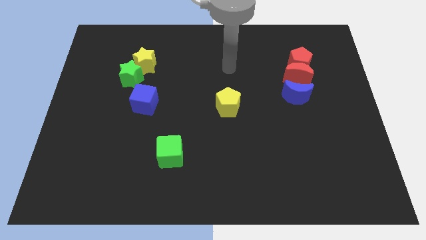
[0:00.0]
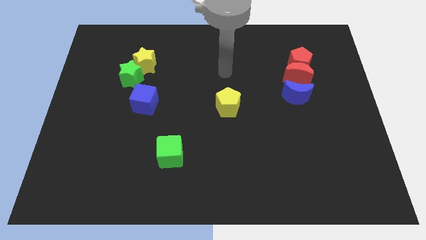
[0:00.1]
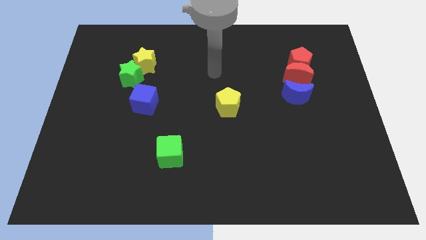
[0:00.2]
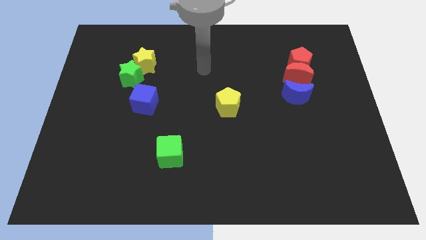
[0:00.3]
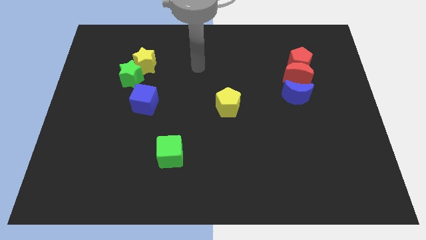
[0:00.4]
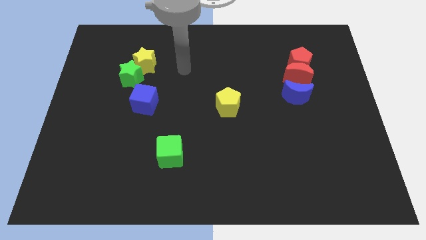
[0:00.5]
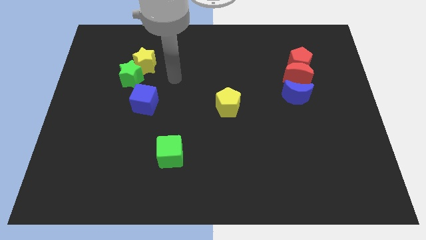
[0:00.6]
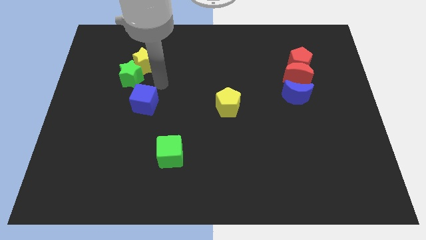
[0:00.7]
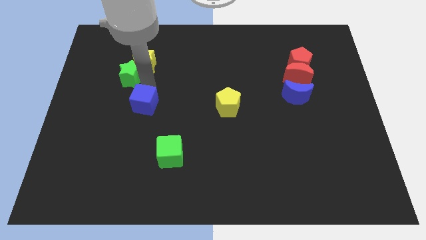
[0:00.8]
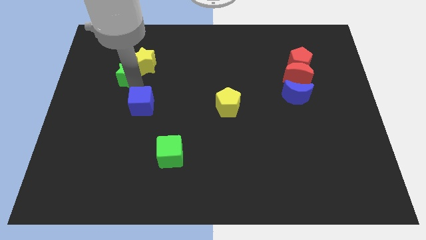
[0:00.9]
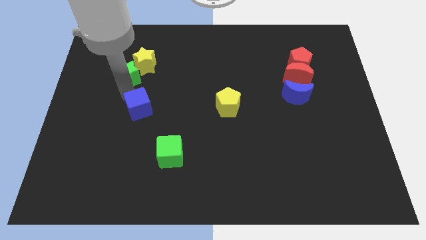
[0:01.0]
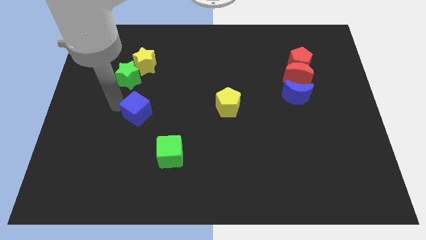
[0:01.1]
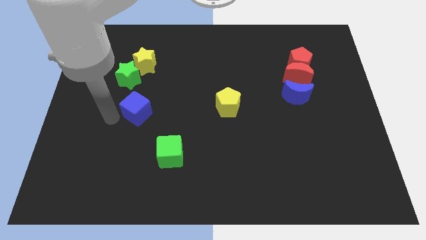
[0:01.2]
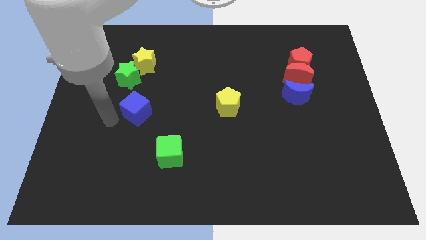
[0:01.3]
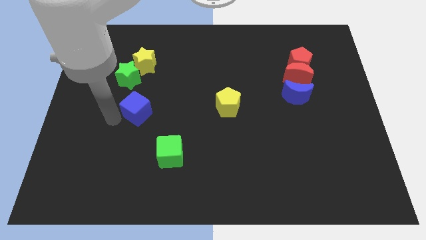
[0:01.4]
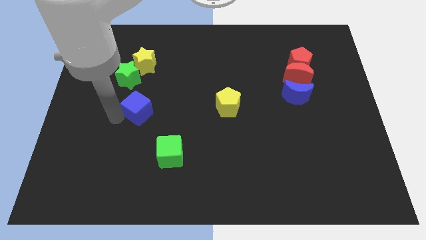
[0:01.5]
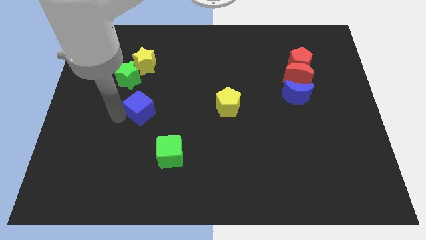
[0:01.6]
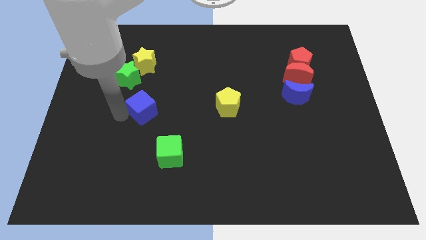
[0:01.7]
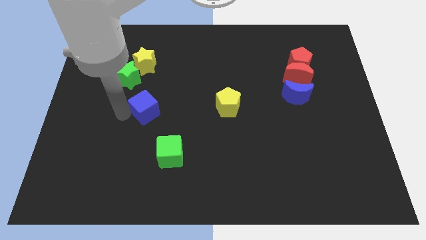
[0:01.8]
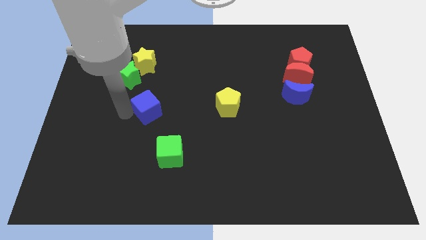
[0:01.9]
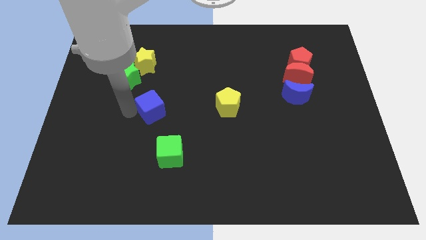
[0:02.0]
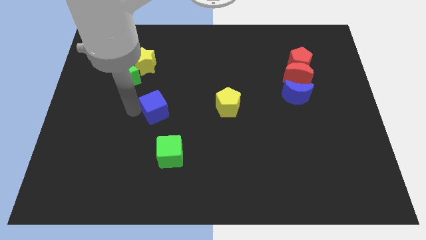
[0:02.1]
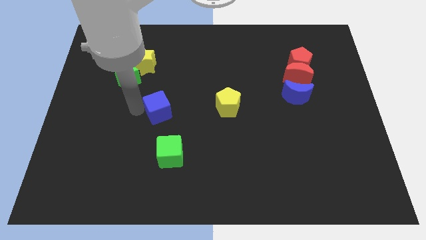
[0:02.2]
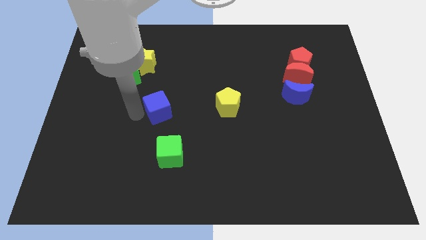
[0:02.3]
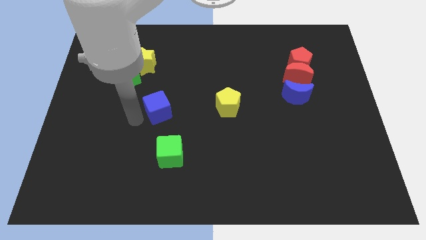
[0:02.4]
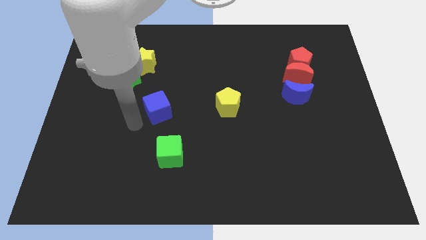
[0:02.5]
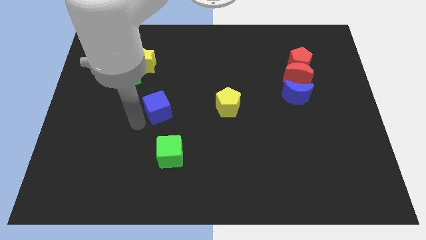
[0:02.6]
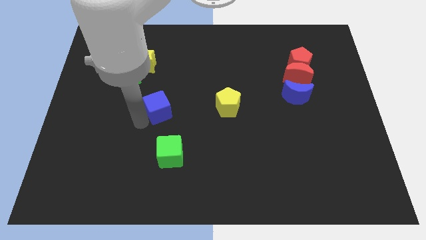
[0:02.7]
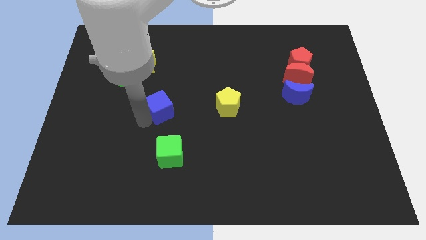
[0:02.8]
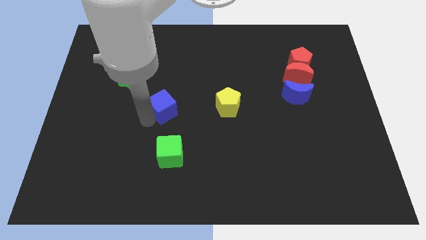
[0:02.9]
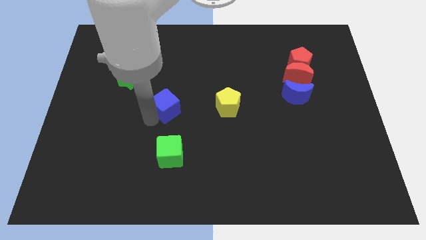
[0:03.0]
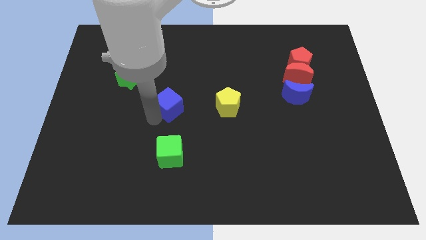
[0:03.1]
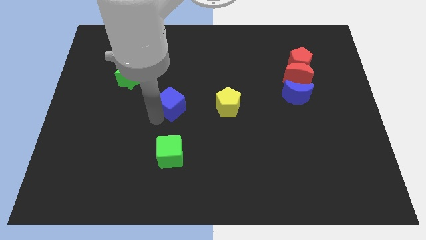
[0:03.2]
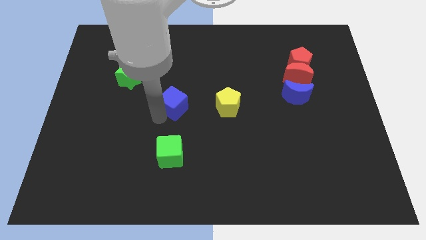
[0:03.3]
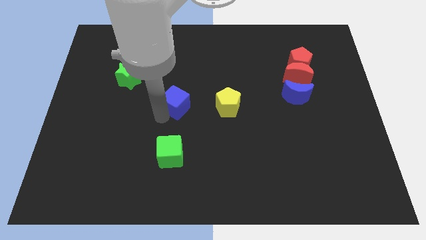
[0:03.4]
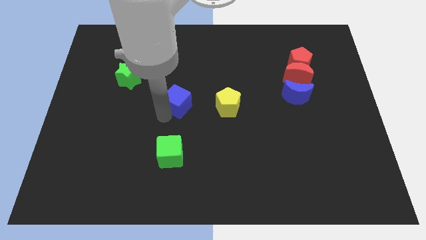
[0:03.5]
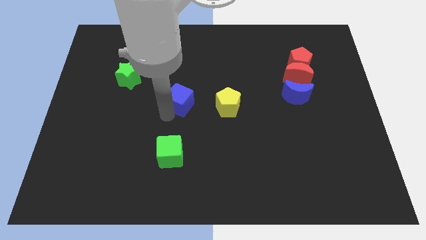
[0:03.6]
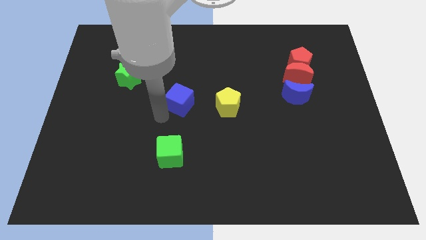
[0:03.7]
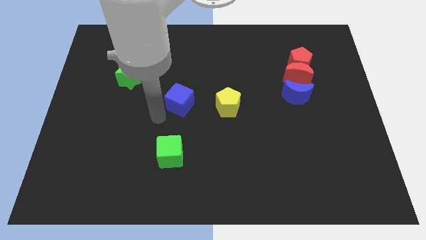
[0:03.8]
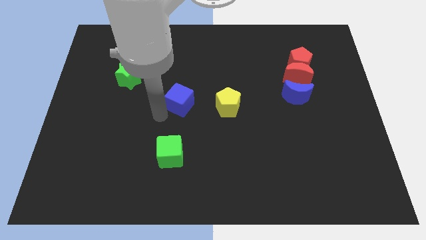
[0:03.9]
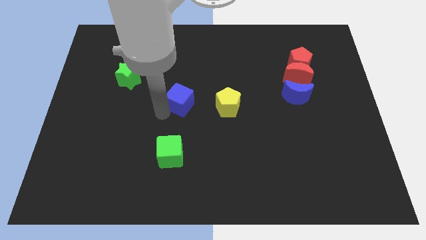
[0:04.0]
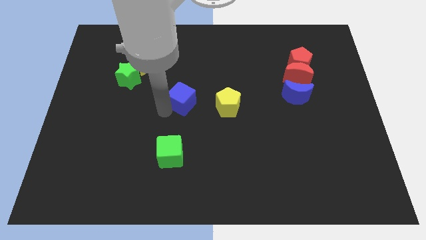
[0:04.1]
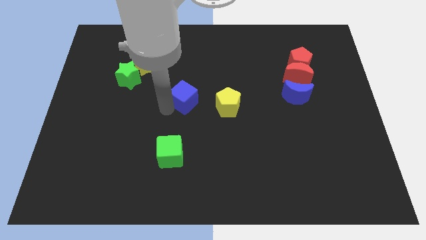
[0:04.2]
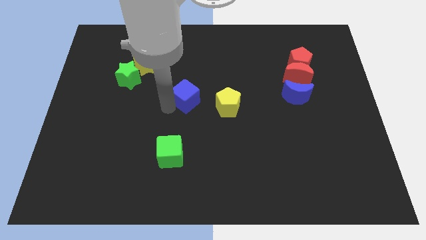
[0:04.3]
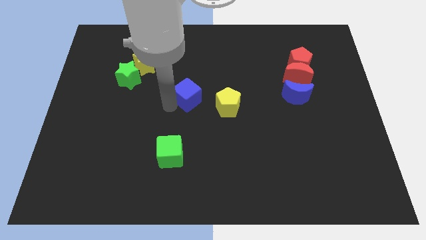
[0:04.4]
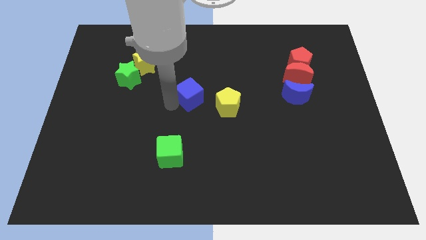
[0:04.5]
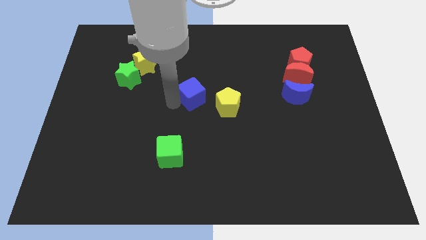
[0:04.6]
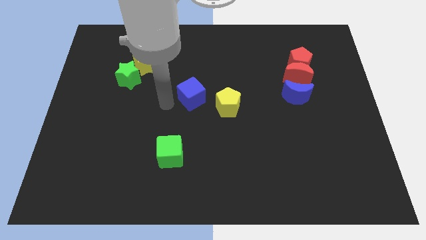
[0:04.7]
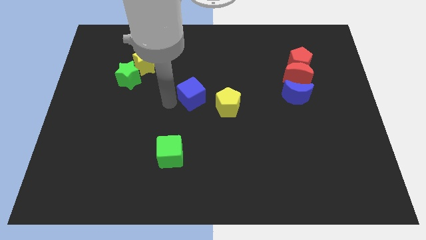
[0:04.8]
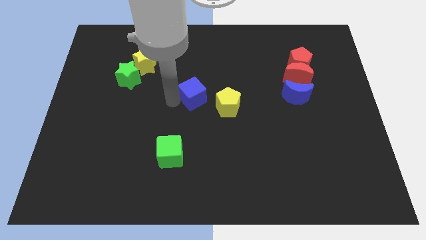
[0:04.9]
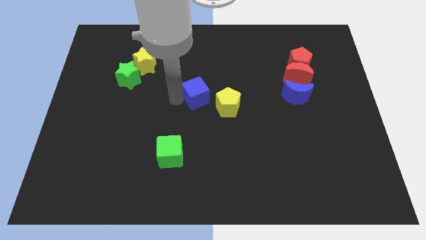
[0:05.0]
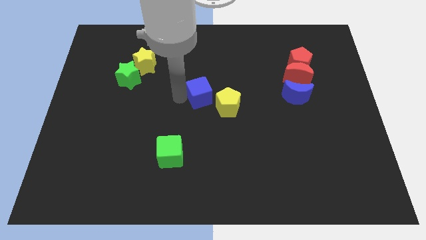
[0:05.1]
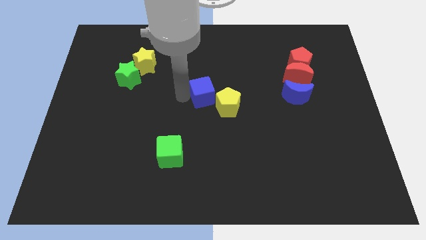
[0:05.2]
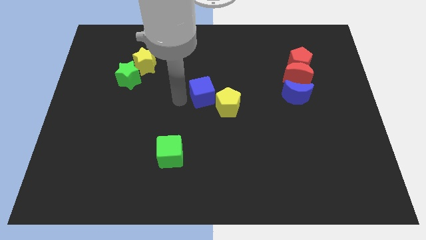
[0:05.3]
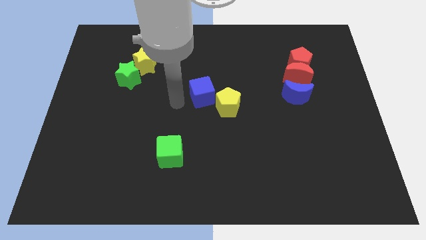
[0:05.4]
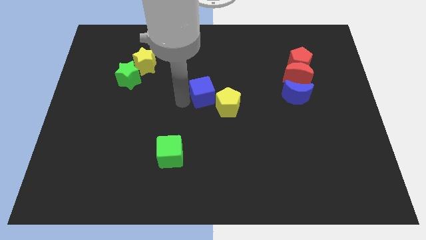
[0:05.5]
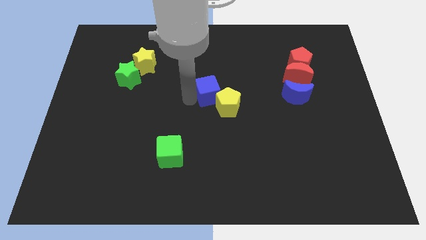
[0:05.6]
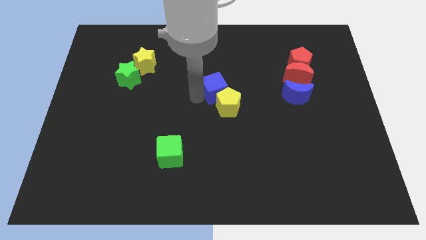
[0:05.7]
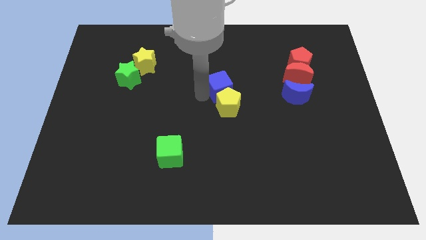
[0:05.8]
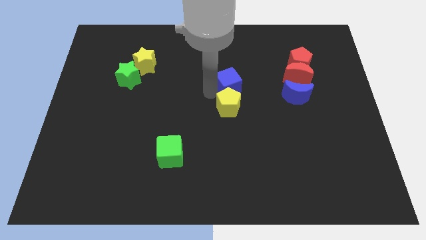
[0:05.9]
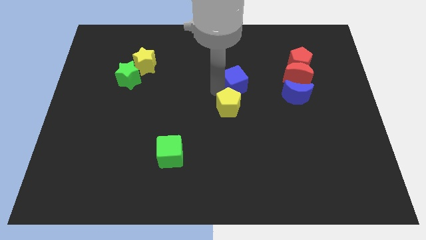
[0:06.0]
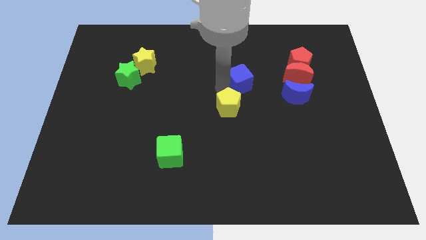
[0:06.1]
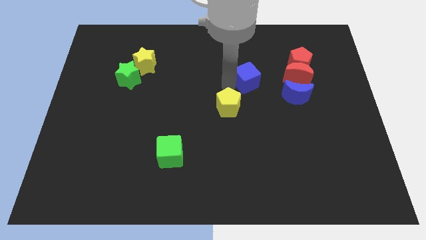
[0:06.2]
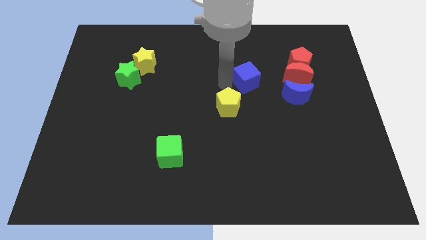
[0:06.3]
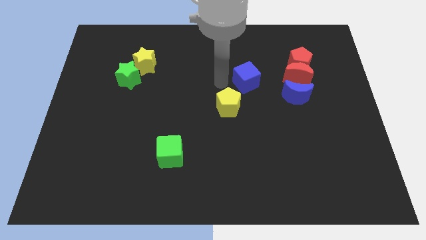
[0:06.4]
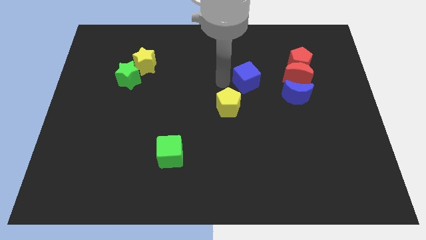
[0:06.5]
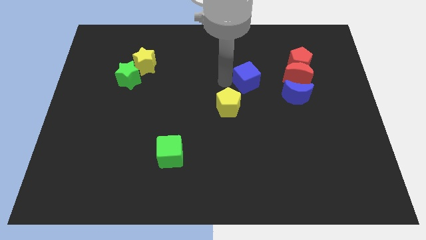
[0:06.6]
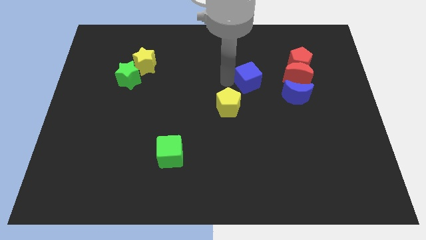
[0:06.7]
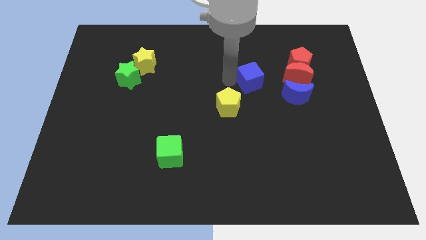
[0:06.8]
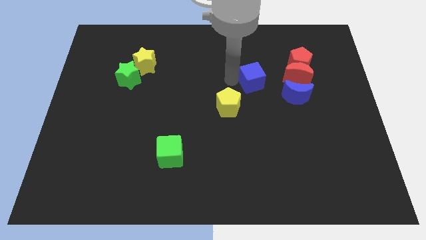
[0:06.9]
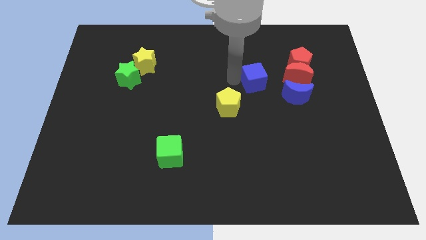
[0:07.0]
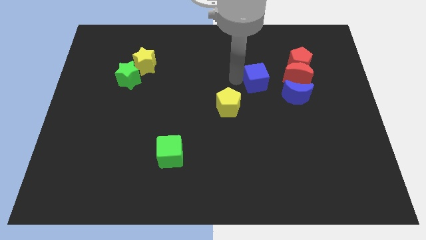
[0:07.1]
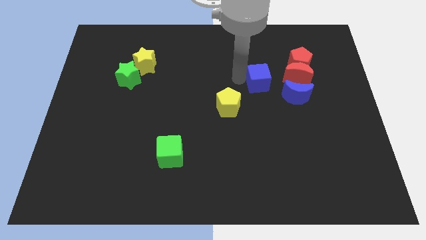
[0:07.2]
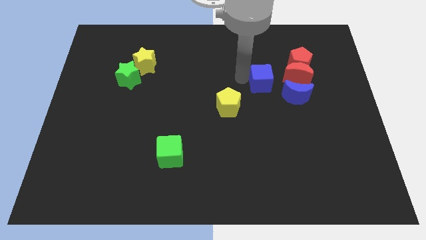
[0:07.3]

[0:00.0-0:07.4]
move the blue cube to the bottom left side of the red pentagon
